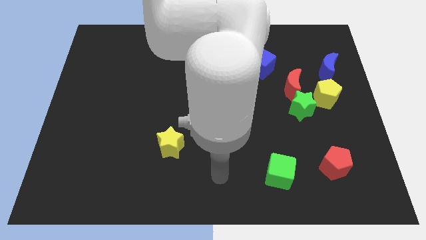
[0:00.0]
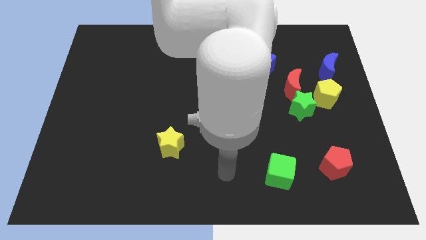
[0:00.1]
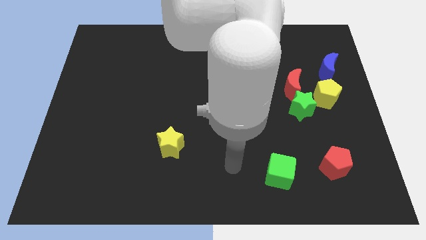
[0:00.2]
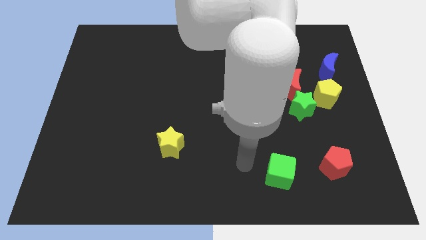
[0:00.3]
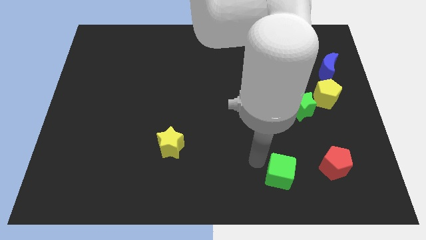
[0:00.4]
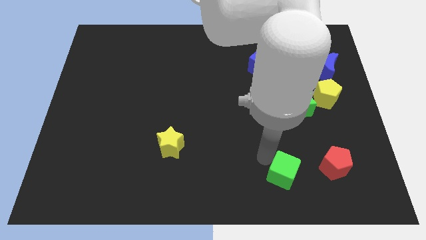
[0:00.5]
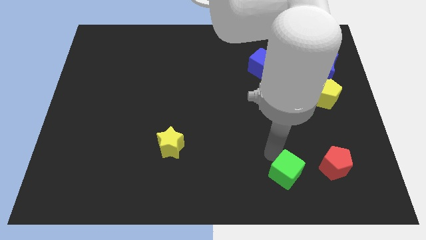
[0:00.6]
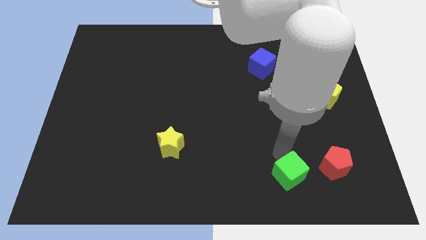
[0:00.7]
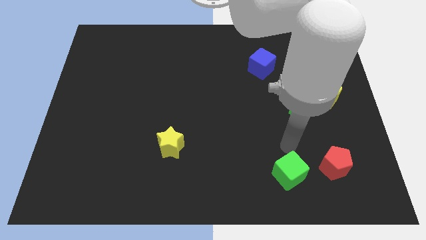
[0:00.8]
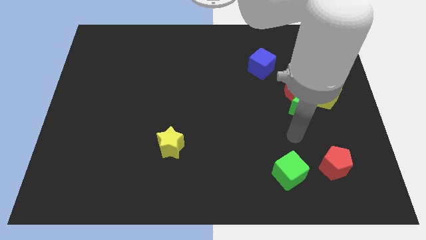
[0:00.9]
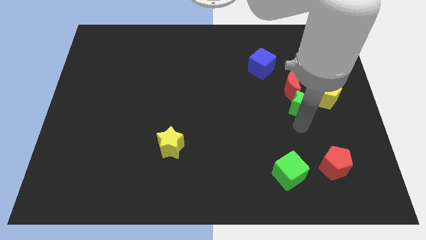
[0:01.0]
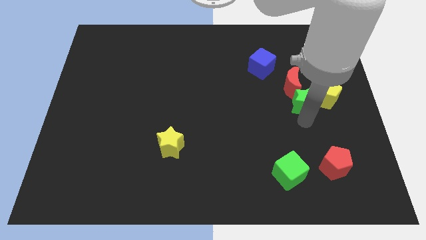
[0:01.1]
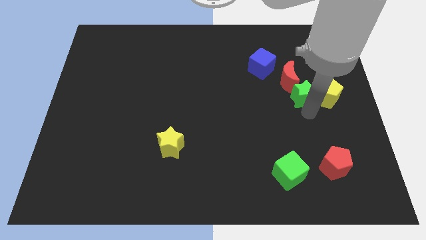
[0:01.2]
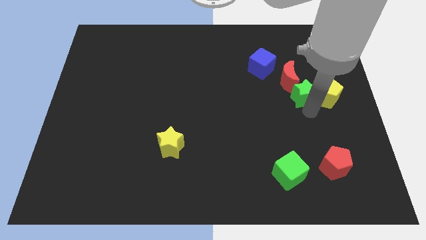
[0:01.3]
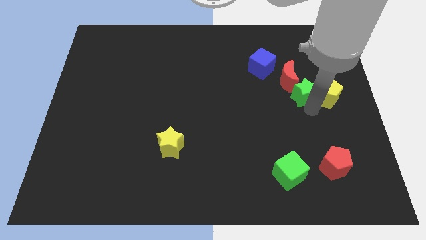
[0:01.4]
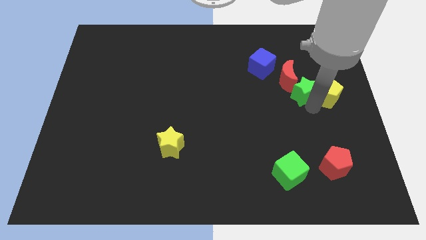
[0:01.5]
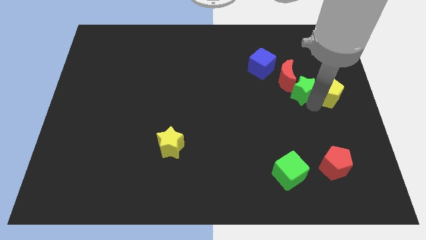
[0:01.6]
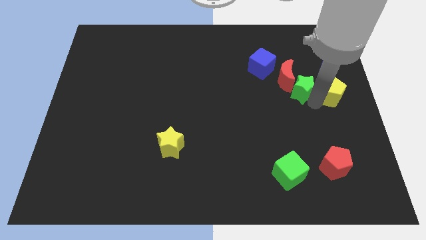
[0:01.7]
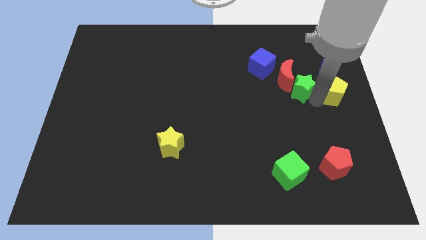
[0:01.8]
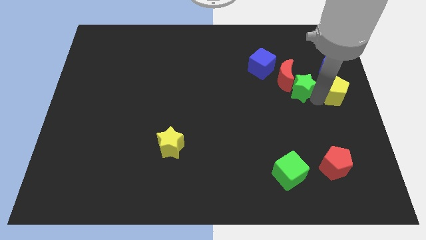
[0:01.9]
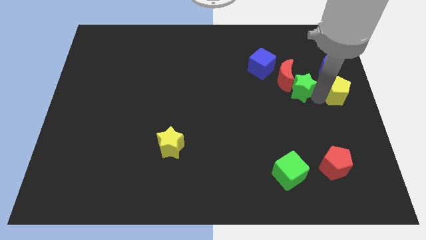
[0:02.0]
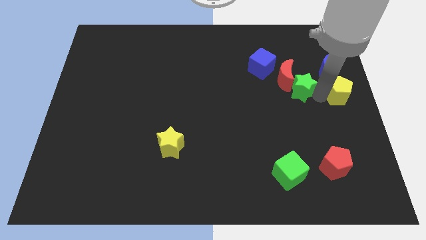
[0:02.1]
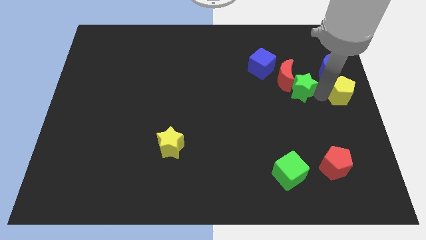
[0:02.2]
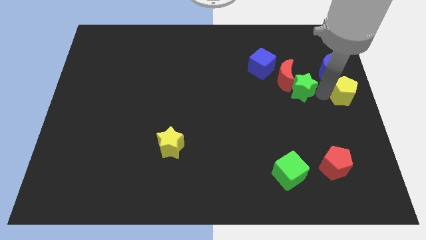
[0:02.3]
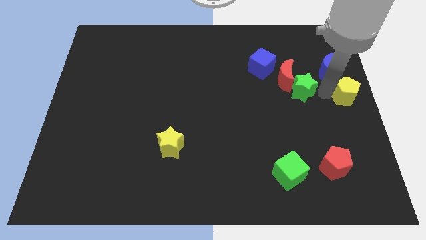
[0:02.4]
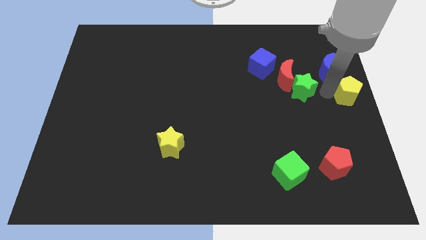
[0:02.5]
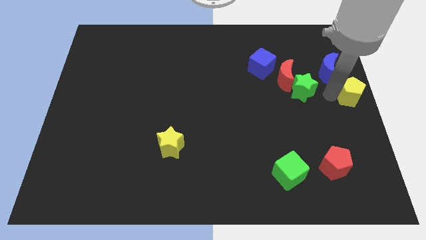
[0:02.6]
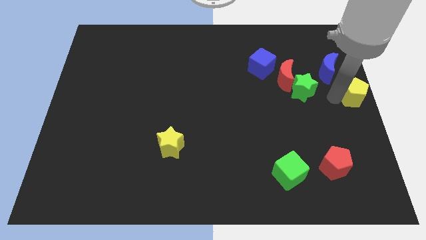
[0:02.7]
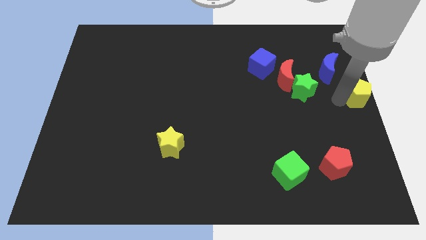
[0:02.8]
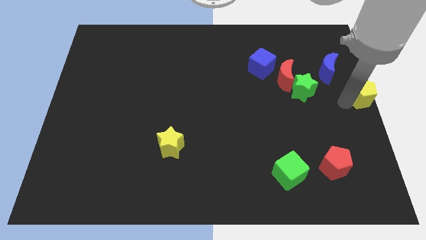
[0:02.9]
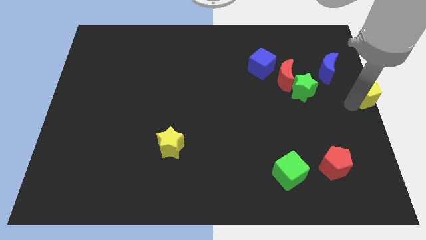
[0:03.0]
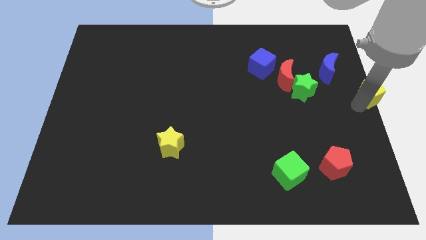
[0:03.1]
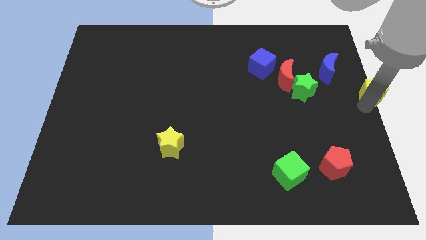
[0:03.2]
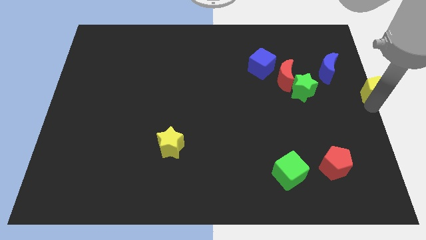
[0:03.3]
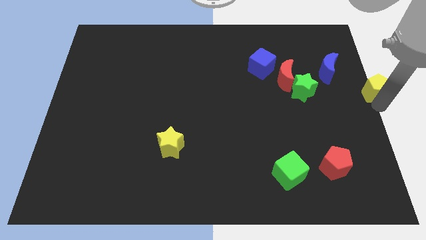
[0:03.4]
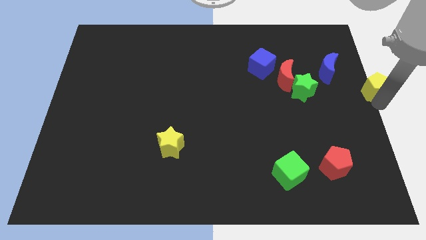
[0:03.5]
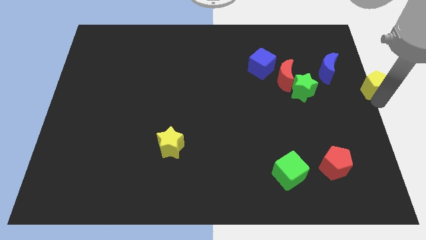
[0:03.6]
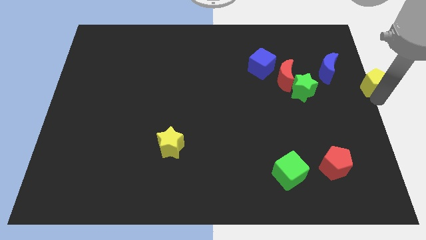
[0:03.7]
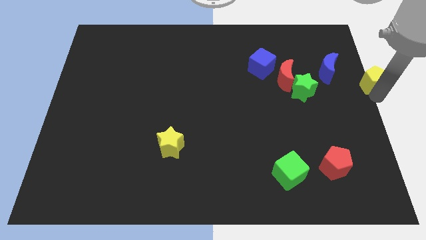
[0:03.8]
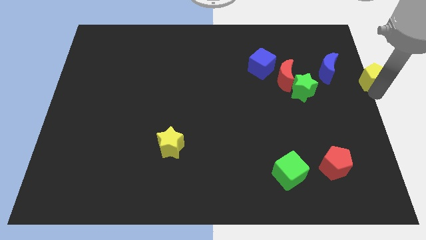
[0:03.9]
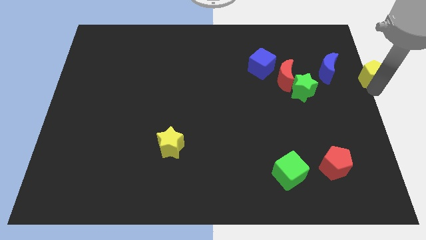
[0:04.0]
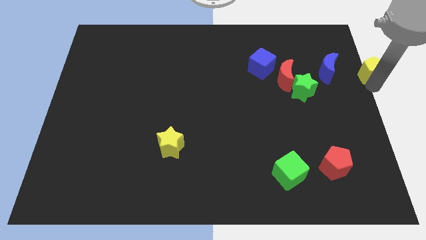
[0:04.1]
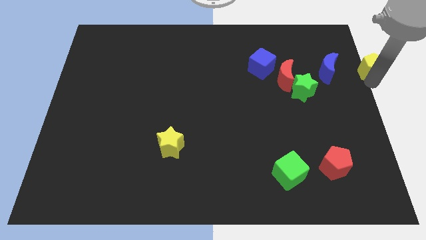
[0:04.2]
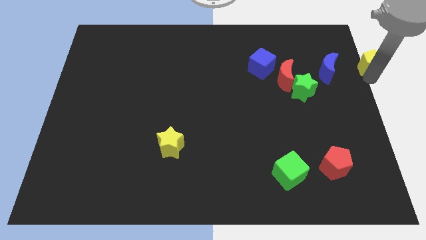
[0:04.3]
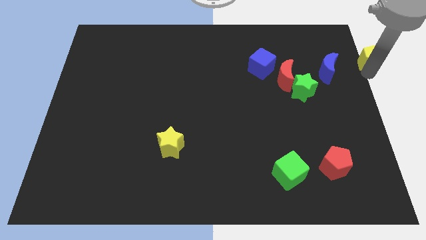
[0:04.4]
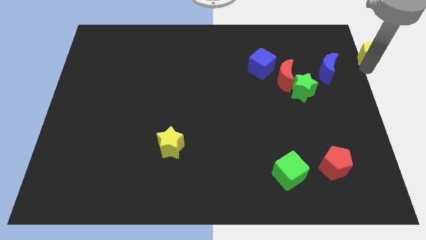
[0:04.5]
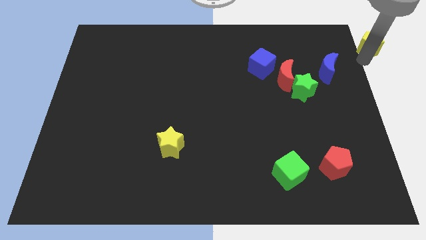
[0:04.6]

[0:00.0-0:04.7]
move the yellow pentagon to the top right corner

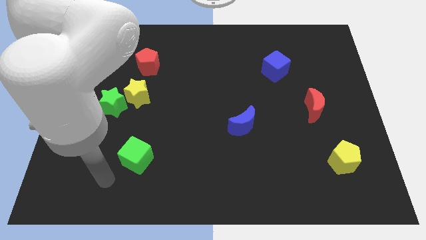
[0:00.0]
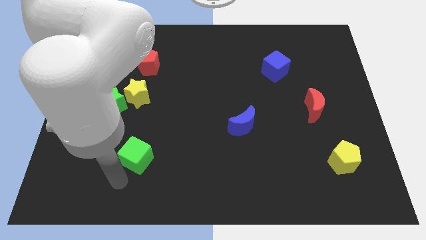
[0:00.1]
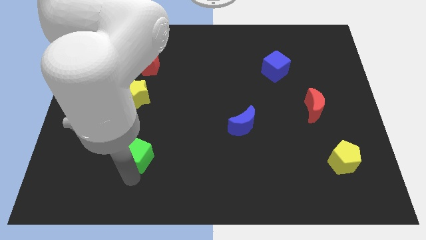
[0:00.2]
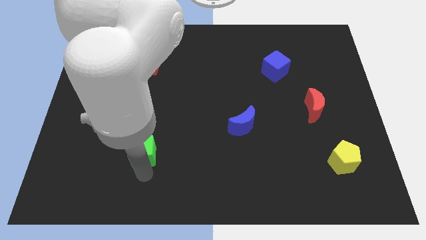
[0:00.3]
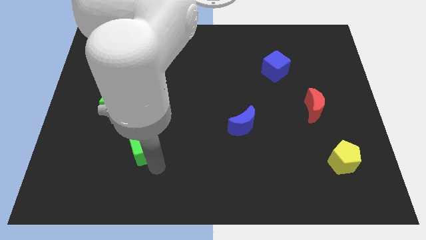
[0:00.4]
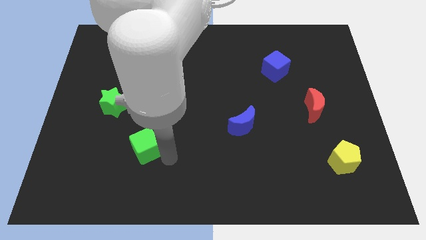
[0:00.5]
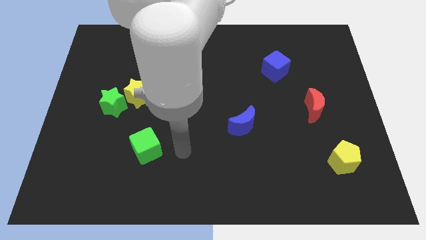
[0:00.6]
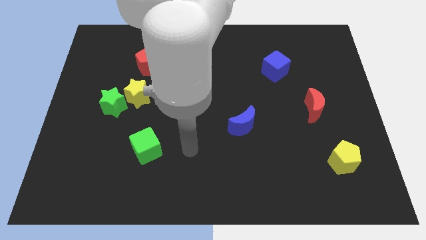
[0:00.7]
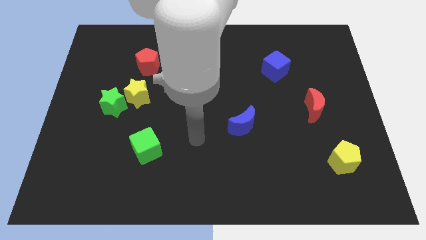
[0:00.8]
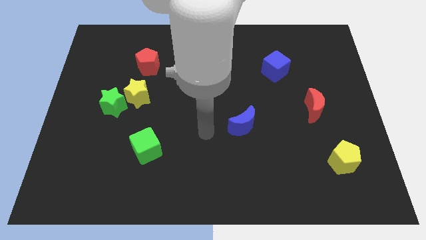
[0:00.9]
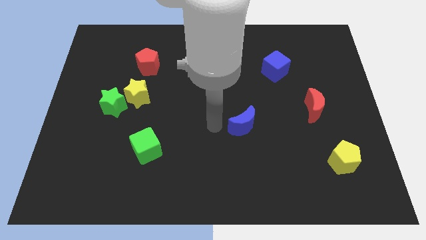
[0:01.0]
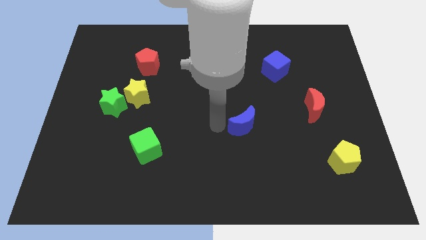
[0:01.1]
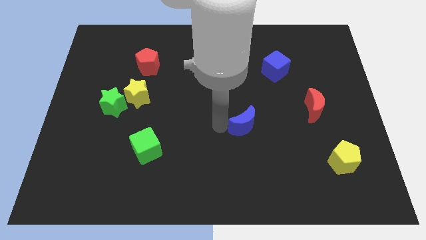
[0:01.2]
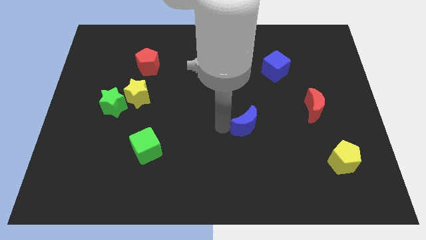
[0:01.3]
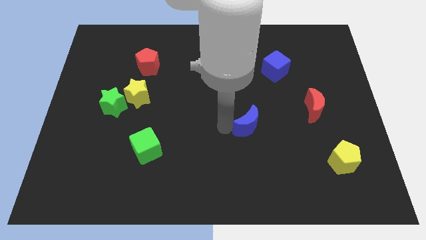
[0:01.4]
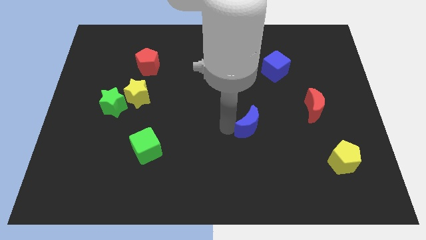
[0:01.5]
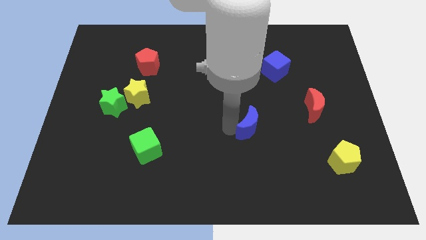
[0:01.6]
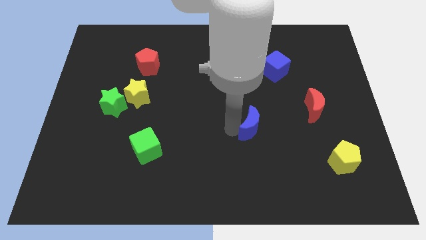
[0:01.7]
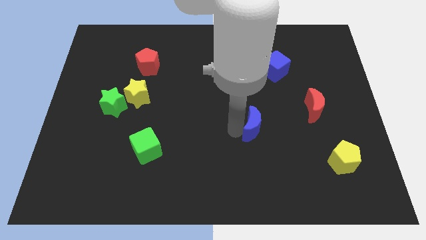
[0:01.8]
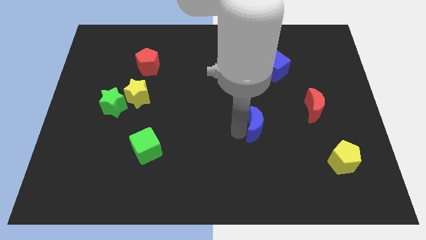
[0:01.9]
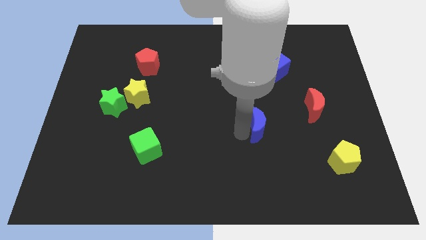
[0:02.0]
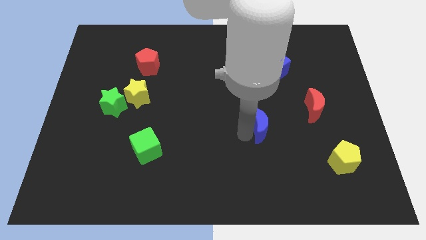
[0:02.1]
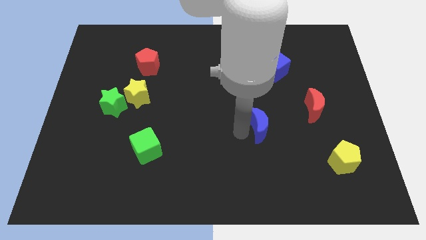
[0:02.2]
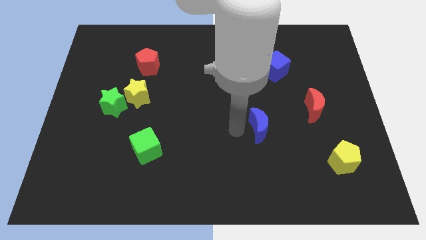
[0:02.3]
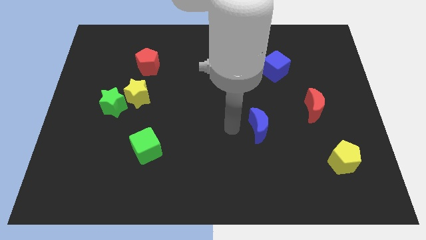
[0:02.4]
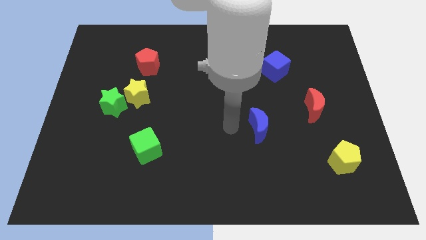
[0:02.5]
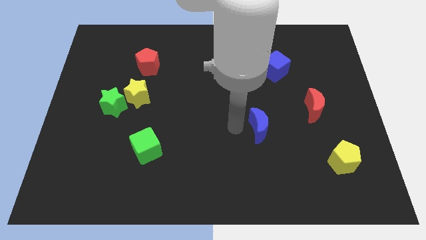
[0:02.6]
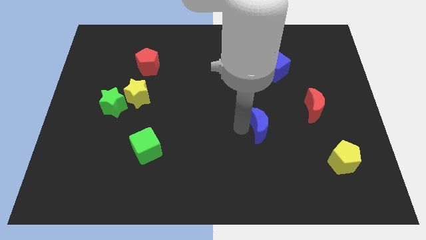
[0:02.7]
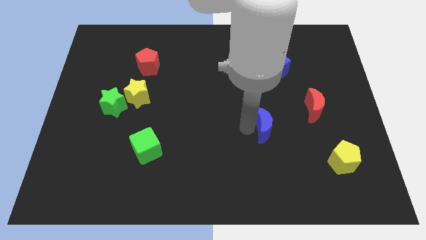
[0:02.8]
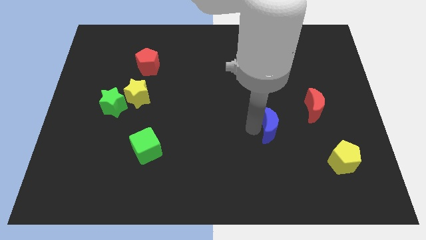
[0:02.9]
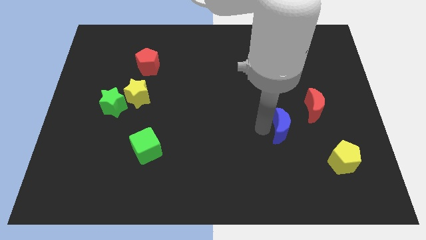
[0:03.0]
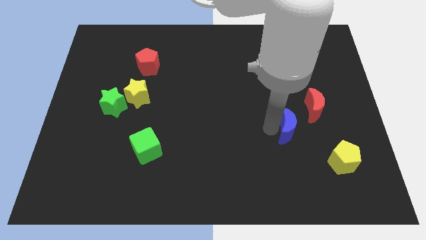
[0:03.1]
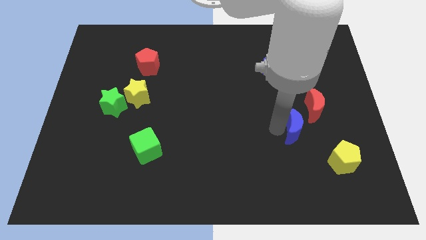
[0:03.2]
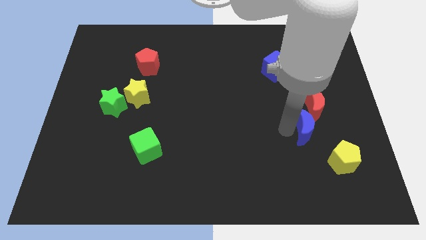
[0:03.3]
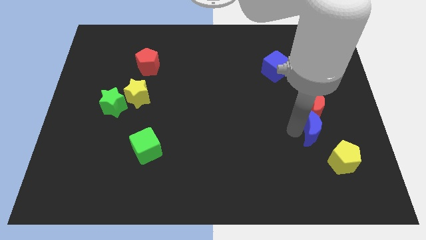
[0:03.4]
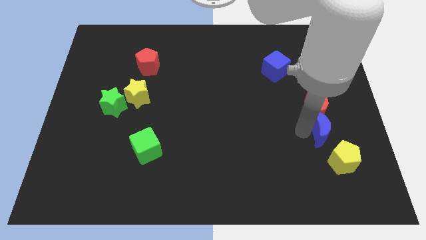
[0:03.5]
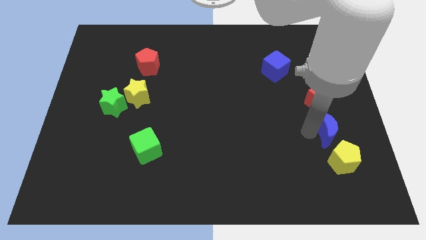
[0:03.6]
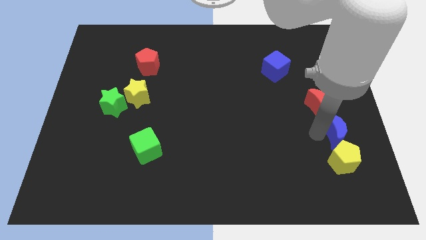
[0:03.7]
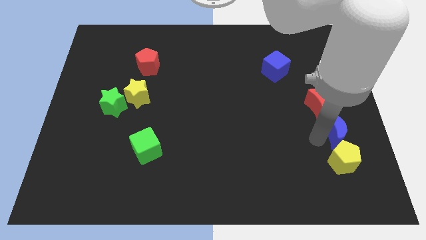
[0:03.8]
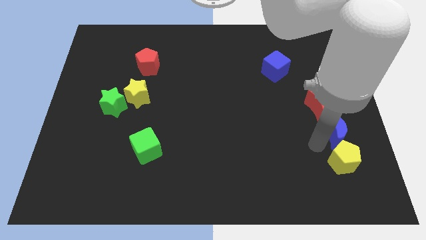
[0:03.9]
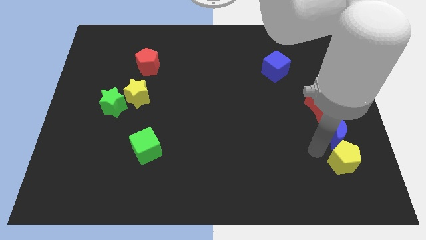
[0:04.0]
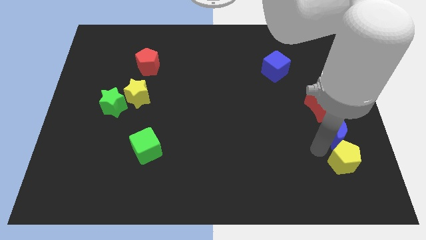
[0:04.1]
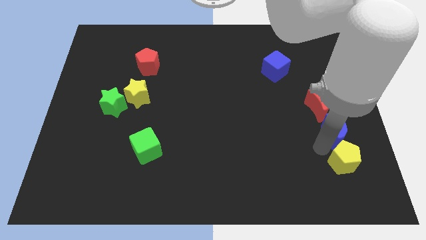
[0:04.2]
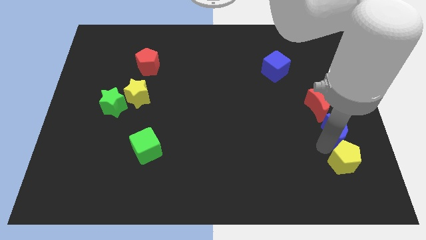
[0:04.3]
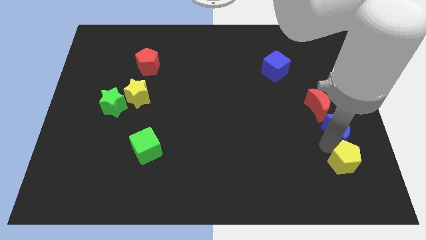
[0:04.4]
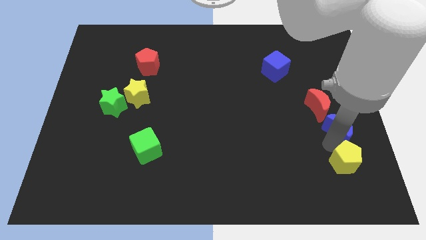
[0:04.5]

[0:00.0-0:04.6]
push the blue moon to the right side of the board
